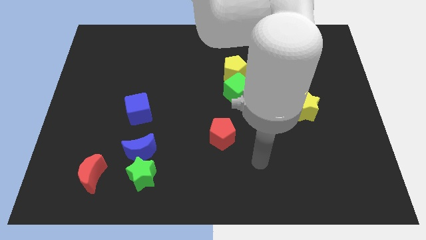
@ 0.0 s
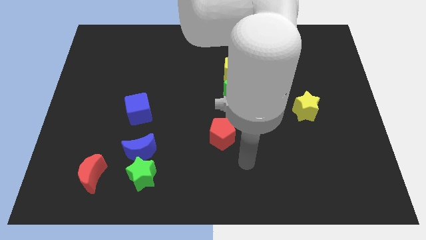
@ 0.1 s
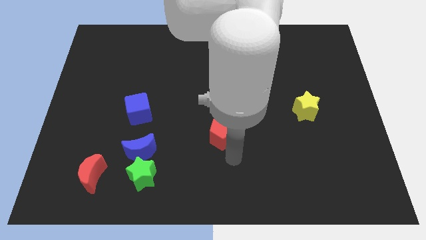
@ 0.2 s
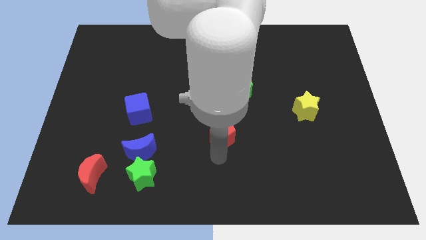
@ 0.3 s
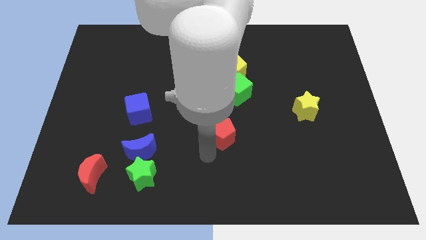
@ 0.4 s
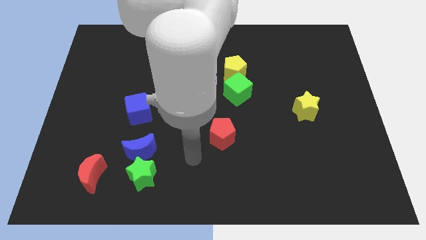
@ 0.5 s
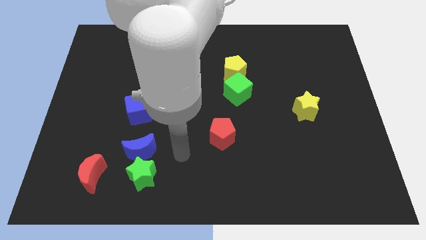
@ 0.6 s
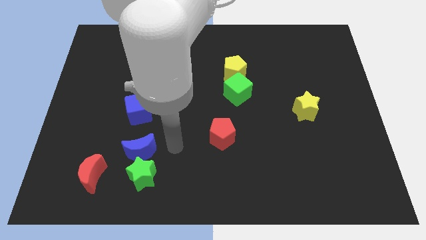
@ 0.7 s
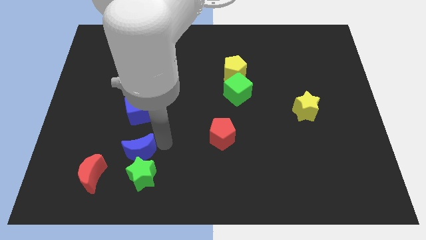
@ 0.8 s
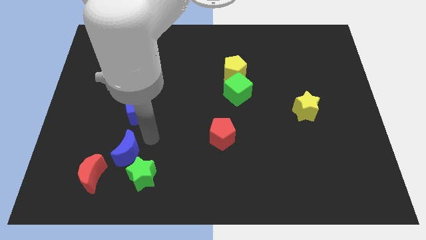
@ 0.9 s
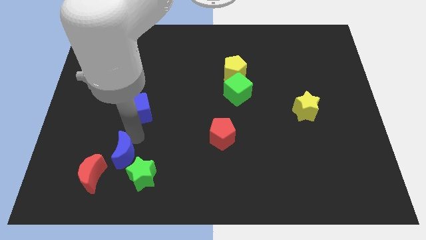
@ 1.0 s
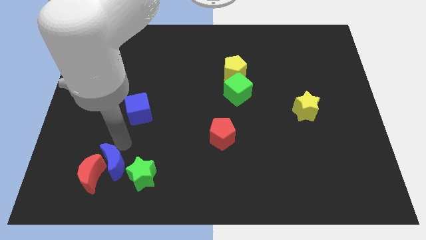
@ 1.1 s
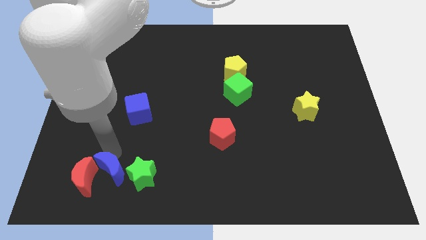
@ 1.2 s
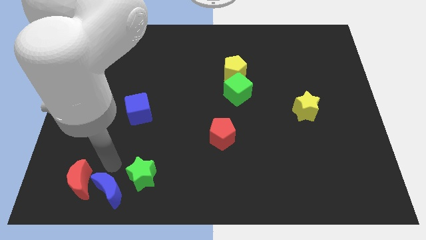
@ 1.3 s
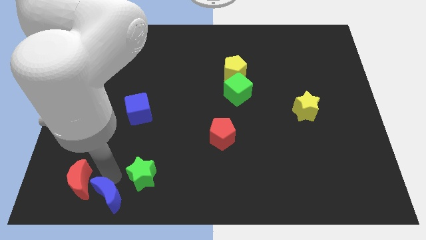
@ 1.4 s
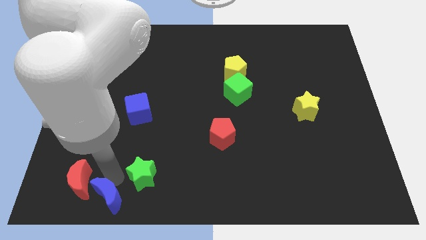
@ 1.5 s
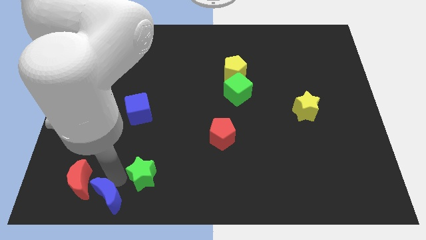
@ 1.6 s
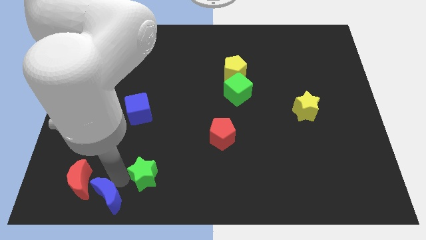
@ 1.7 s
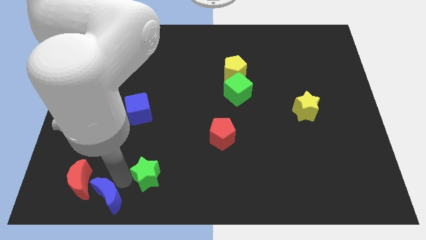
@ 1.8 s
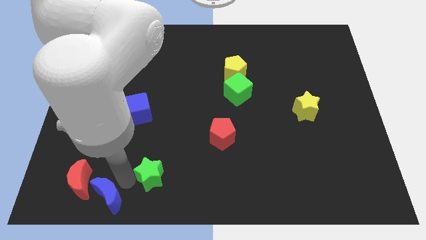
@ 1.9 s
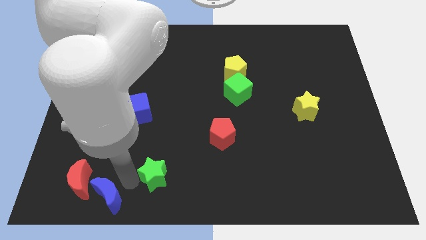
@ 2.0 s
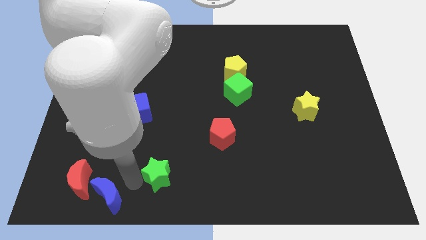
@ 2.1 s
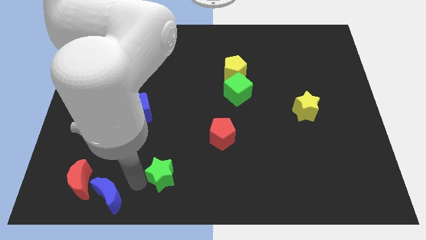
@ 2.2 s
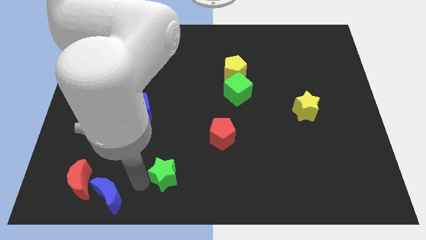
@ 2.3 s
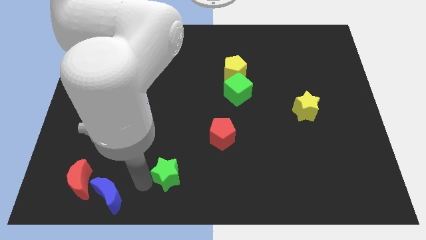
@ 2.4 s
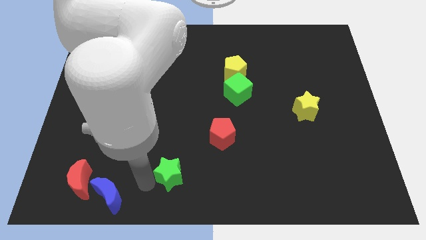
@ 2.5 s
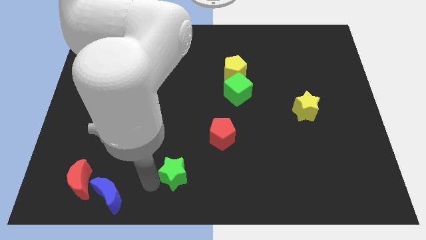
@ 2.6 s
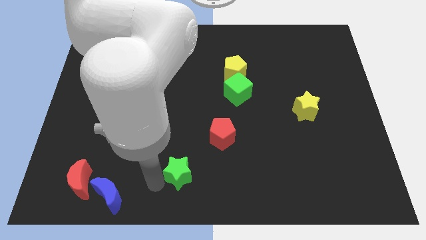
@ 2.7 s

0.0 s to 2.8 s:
slightly move the green star to the right

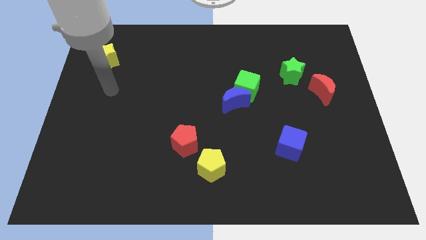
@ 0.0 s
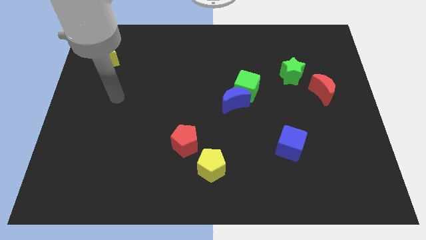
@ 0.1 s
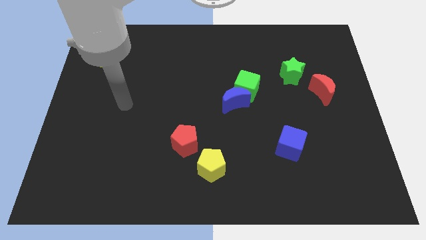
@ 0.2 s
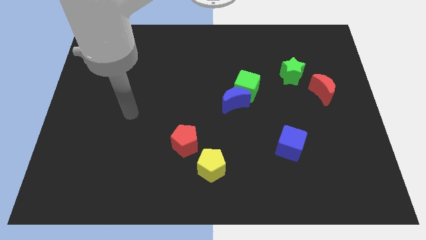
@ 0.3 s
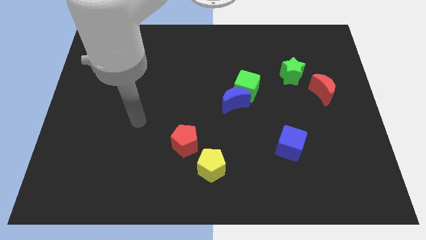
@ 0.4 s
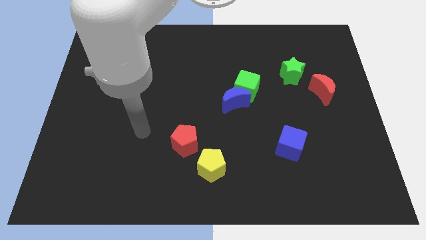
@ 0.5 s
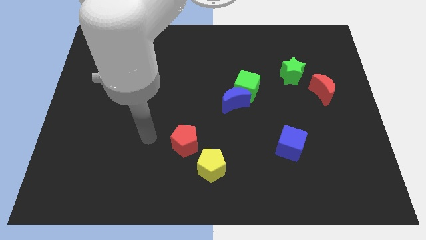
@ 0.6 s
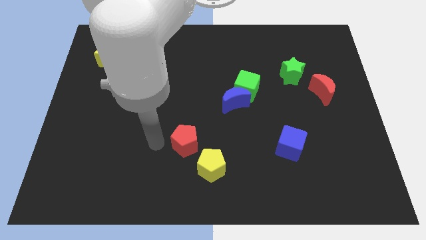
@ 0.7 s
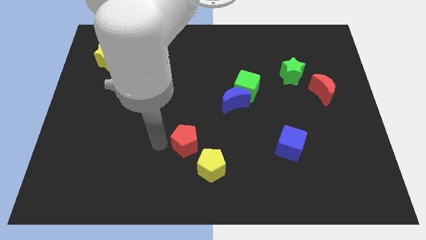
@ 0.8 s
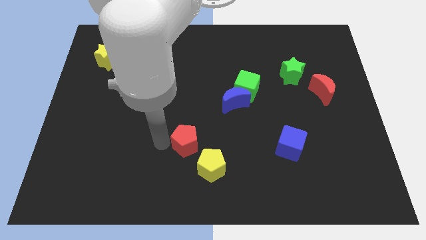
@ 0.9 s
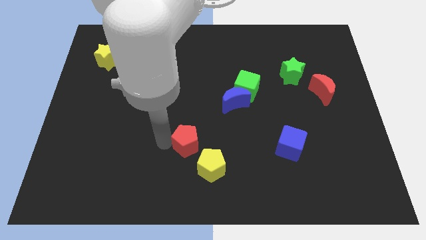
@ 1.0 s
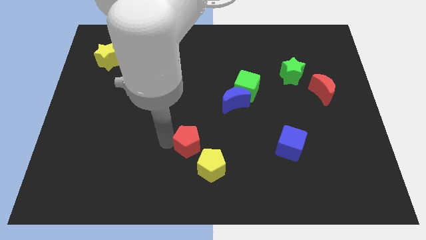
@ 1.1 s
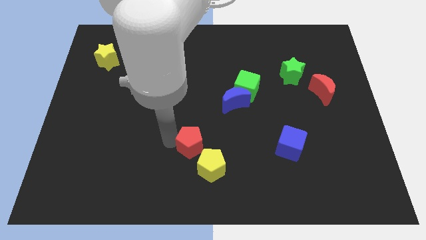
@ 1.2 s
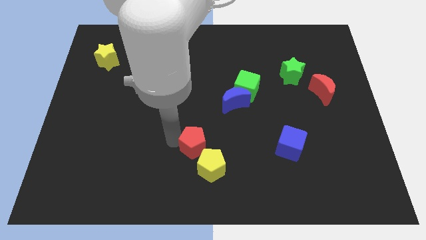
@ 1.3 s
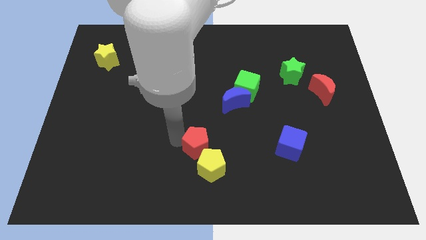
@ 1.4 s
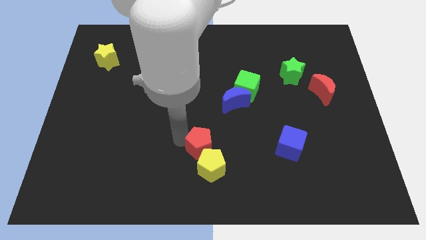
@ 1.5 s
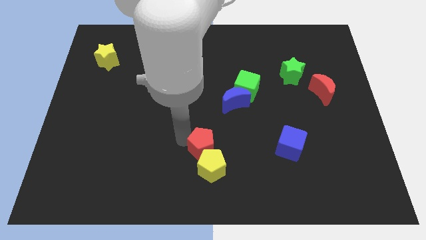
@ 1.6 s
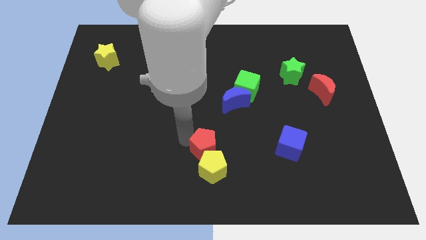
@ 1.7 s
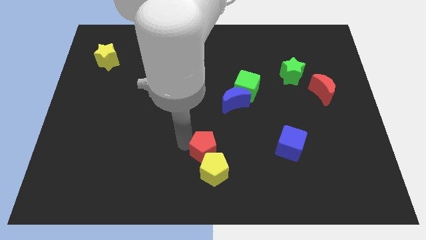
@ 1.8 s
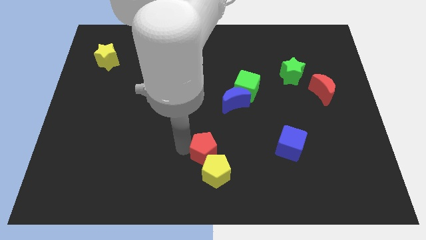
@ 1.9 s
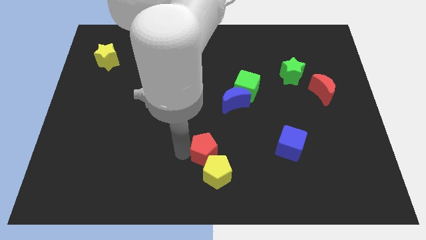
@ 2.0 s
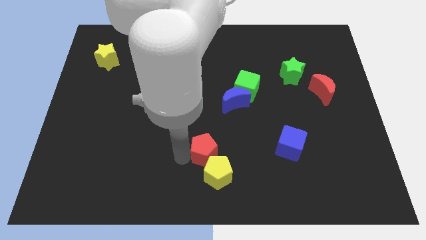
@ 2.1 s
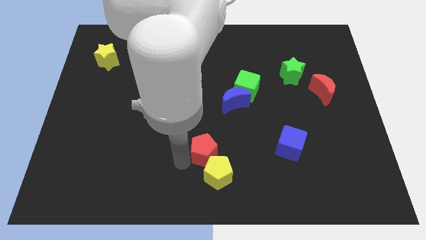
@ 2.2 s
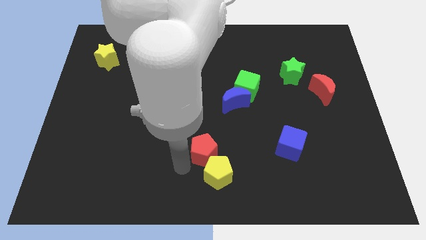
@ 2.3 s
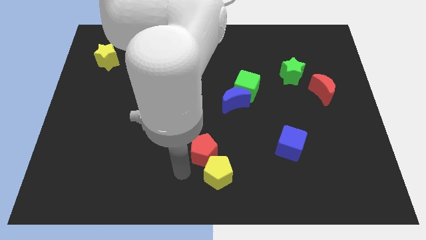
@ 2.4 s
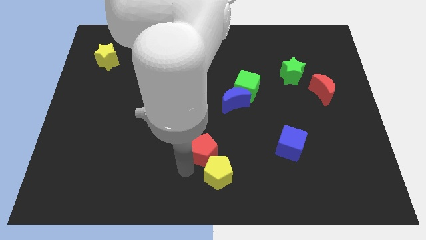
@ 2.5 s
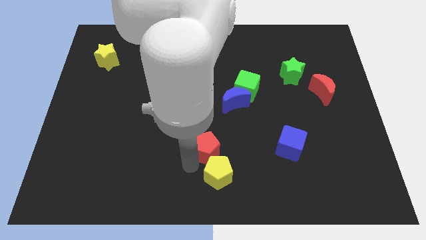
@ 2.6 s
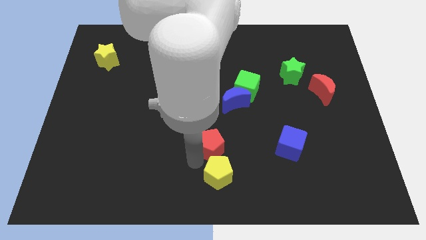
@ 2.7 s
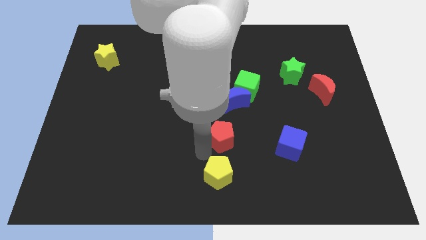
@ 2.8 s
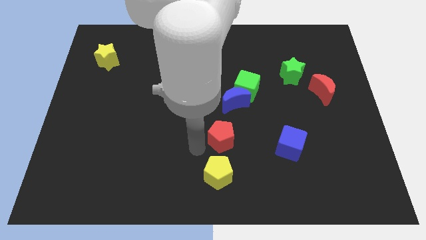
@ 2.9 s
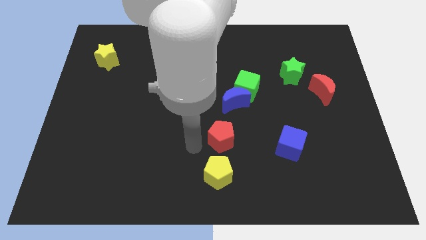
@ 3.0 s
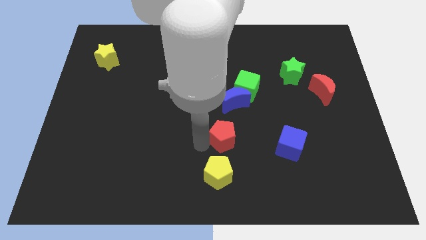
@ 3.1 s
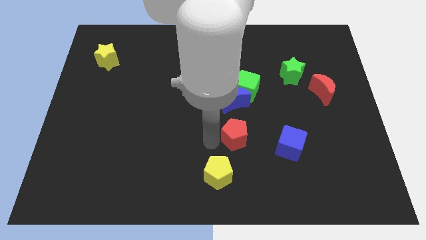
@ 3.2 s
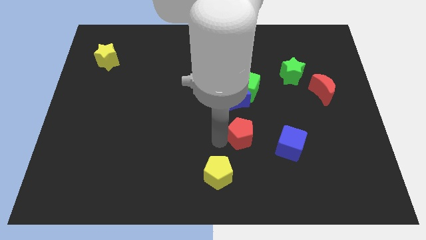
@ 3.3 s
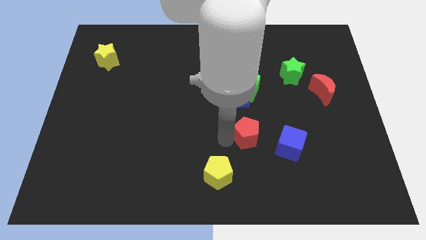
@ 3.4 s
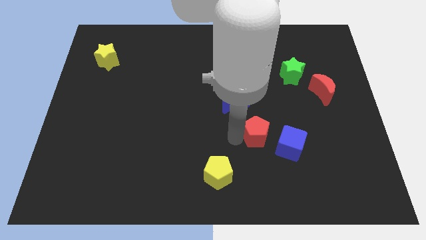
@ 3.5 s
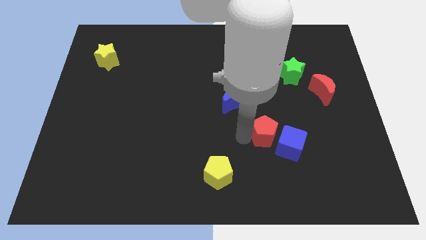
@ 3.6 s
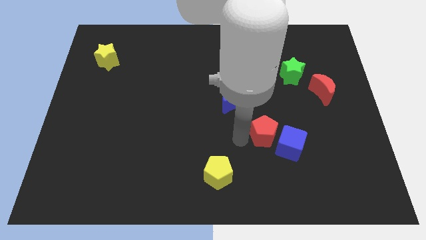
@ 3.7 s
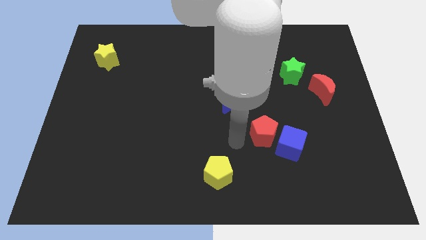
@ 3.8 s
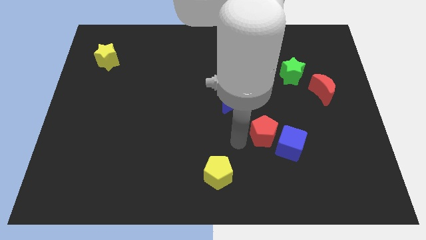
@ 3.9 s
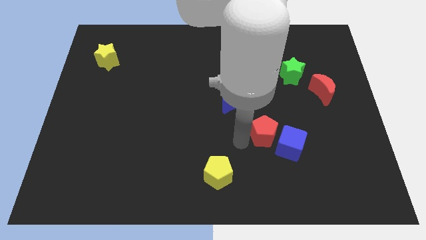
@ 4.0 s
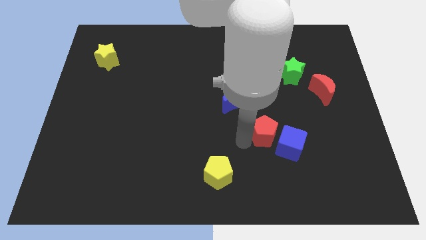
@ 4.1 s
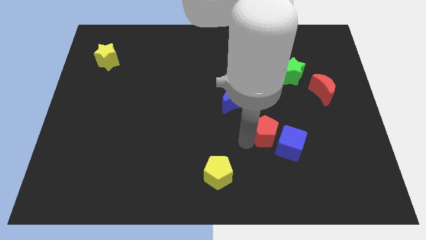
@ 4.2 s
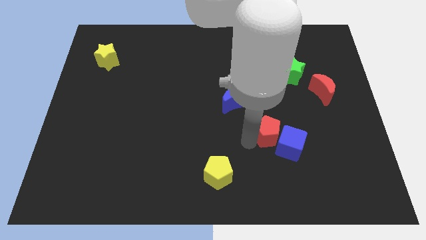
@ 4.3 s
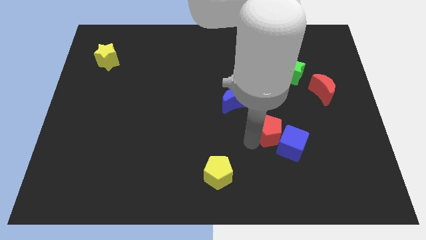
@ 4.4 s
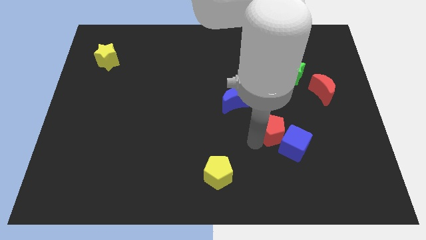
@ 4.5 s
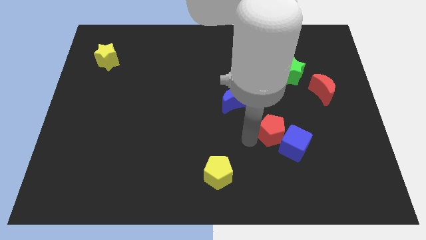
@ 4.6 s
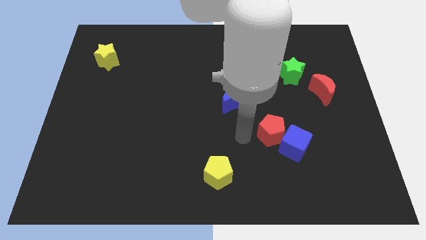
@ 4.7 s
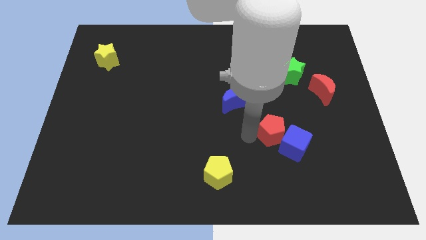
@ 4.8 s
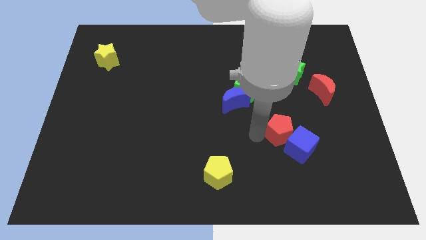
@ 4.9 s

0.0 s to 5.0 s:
slide the red pentagon right
